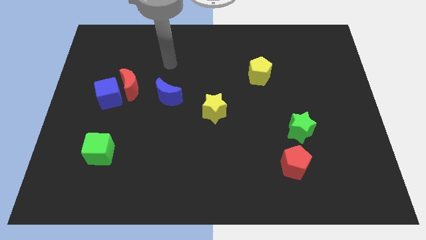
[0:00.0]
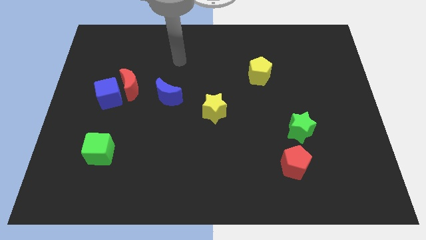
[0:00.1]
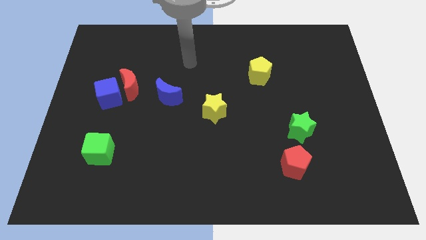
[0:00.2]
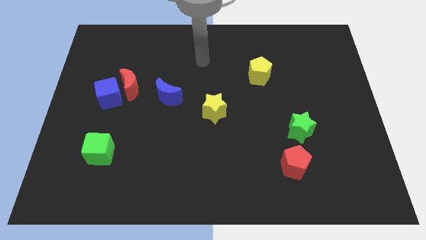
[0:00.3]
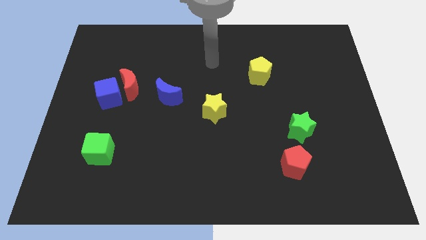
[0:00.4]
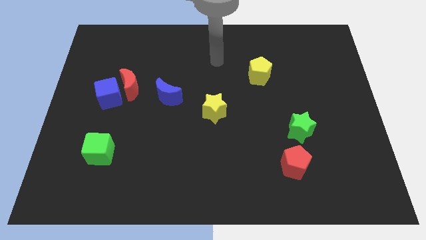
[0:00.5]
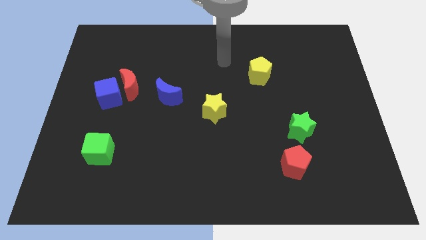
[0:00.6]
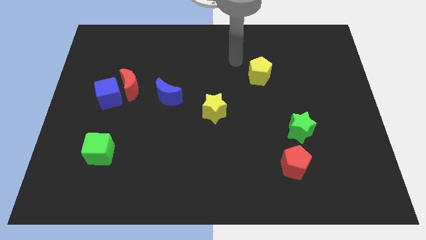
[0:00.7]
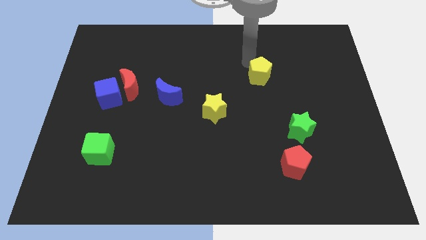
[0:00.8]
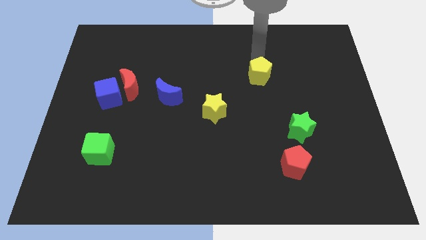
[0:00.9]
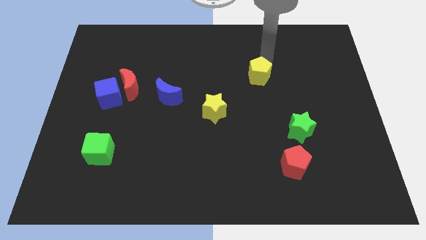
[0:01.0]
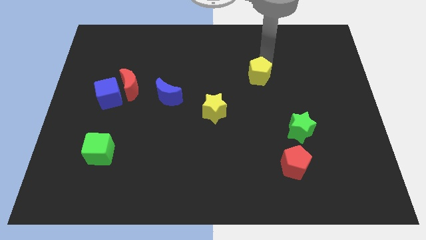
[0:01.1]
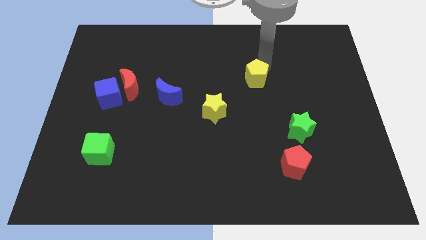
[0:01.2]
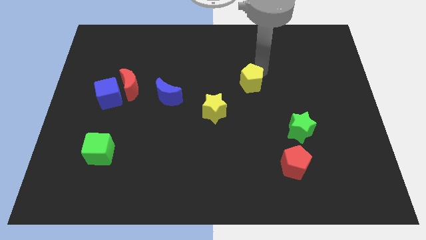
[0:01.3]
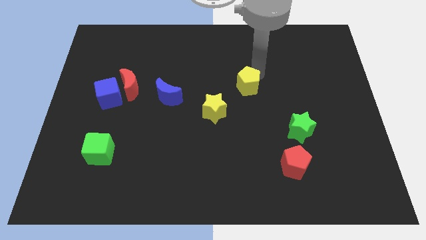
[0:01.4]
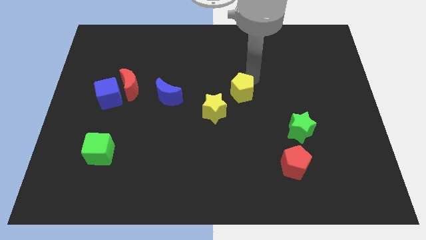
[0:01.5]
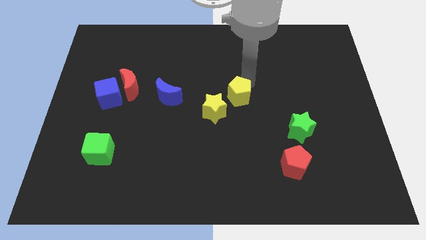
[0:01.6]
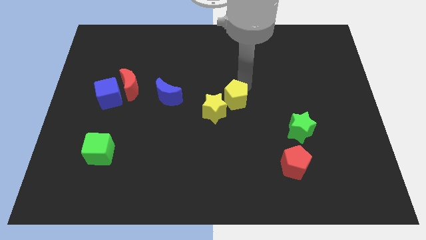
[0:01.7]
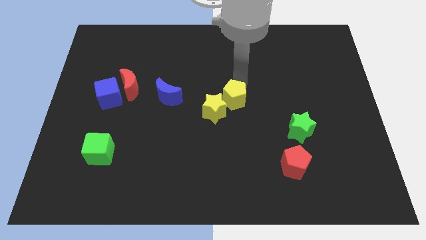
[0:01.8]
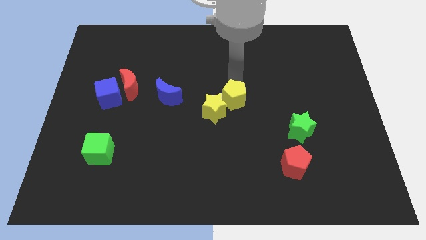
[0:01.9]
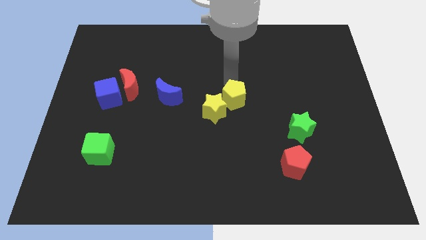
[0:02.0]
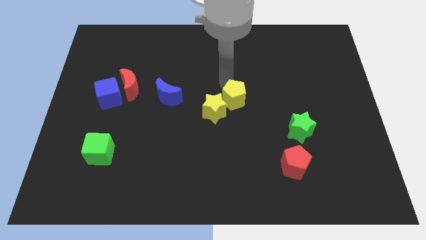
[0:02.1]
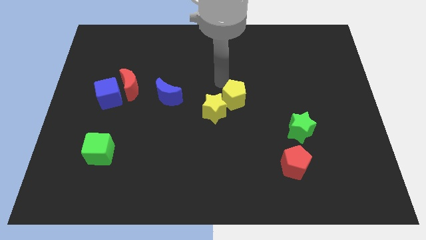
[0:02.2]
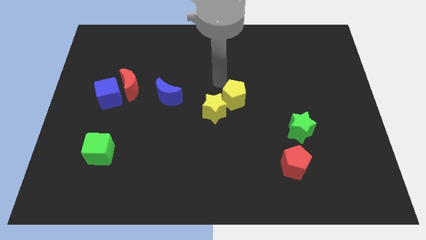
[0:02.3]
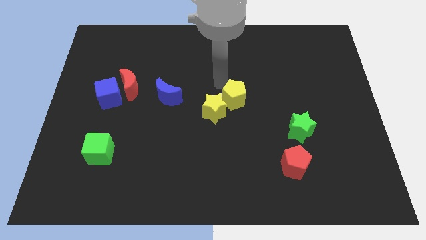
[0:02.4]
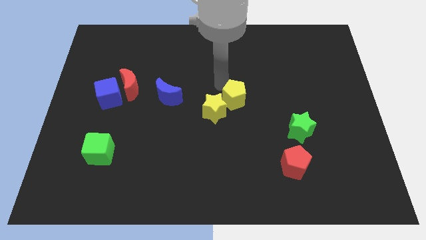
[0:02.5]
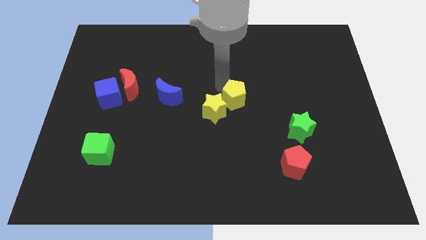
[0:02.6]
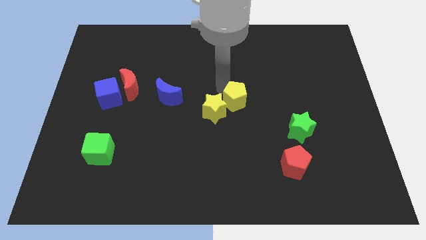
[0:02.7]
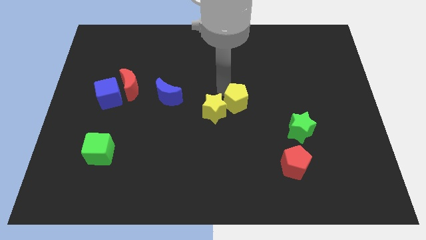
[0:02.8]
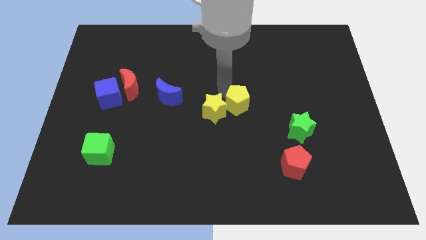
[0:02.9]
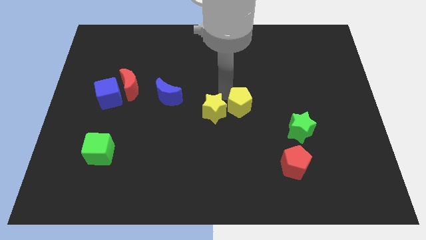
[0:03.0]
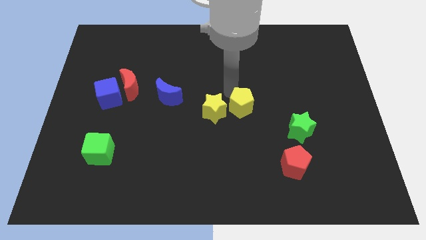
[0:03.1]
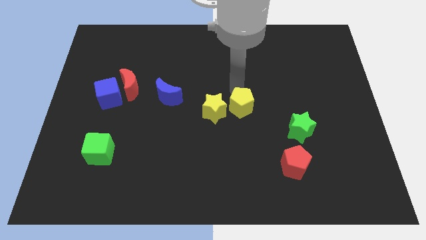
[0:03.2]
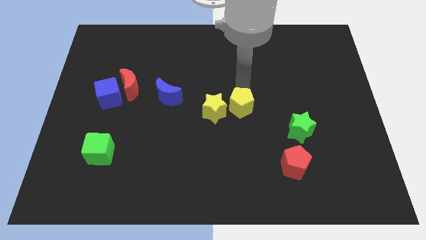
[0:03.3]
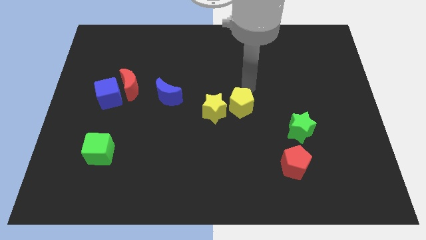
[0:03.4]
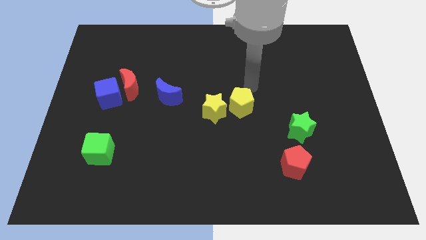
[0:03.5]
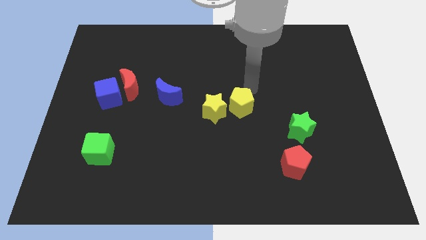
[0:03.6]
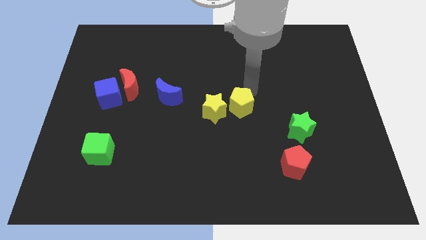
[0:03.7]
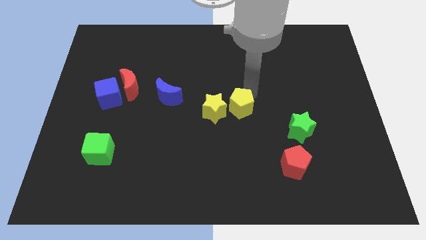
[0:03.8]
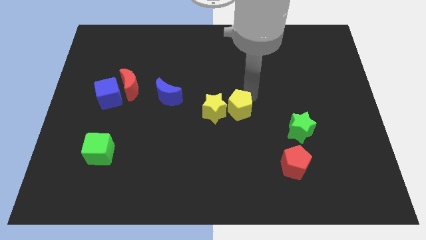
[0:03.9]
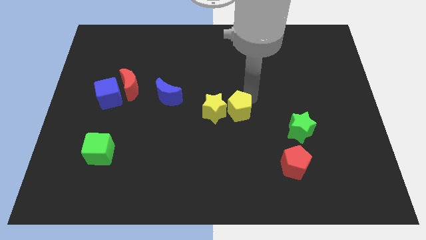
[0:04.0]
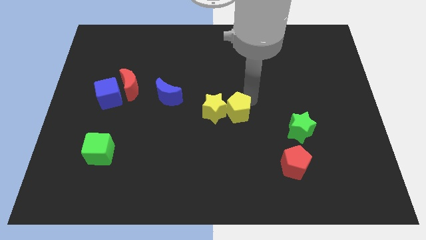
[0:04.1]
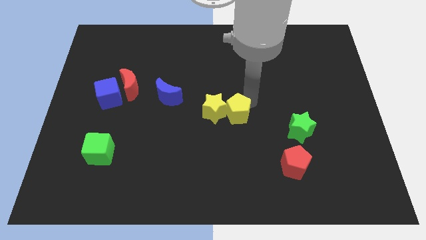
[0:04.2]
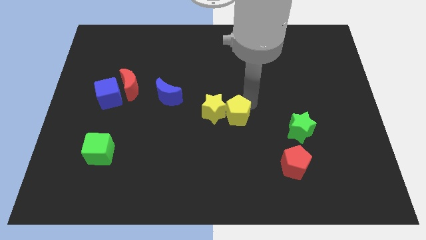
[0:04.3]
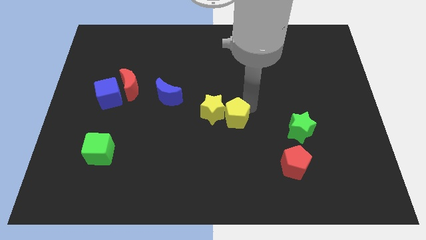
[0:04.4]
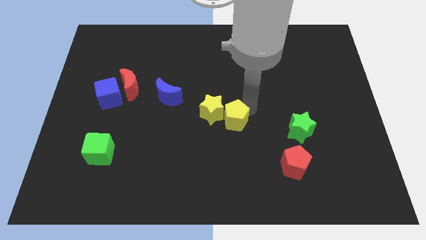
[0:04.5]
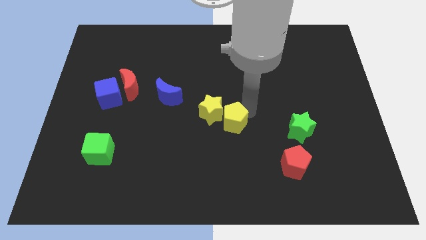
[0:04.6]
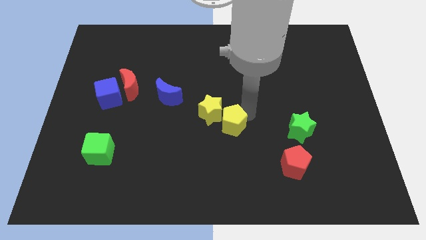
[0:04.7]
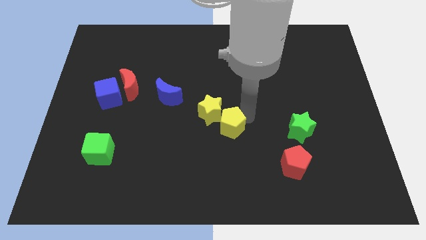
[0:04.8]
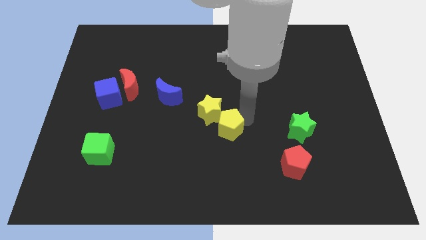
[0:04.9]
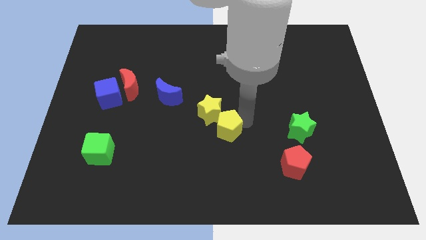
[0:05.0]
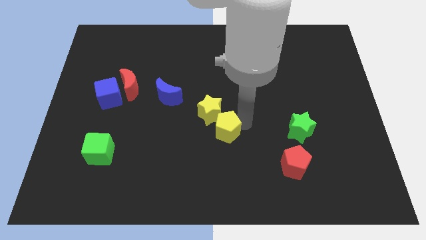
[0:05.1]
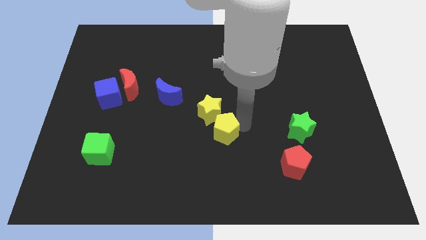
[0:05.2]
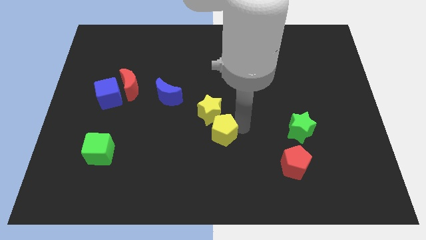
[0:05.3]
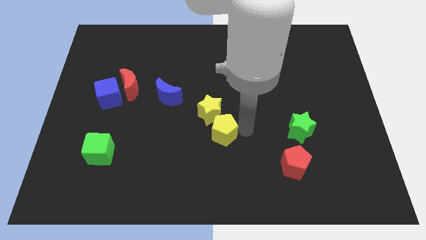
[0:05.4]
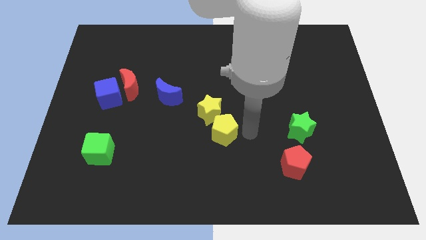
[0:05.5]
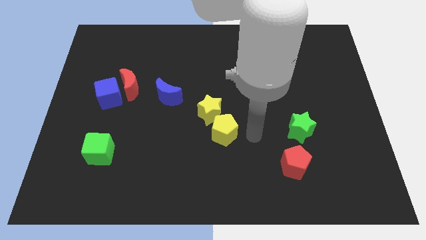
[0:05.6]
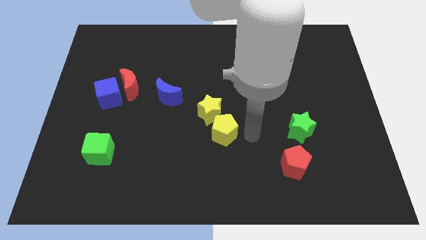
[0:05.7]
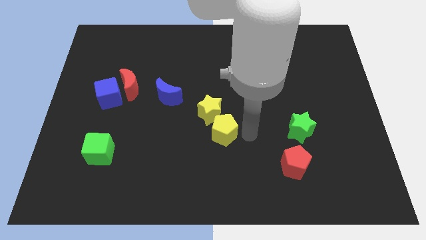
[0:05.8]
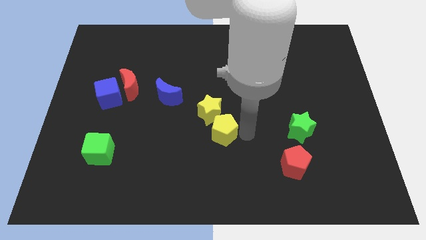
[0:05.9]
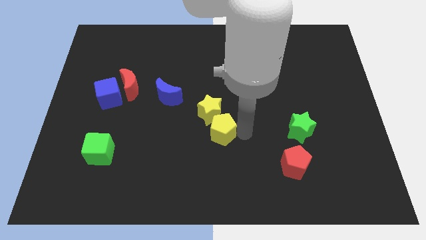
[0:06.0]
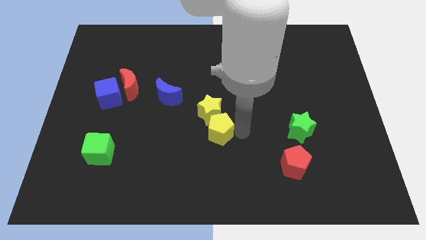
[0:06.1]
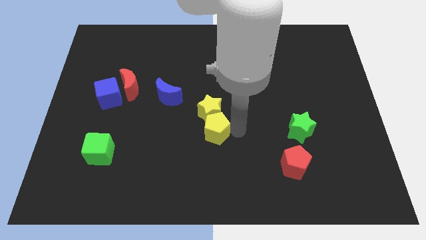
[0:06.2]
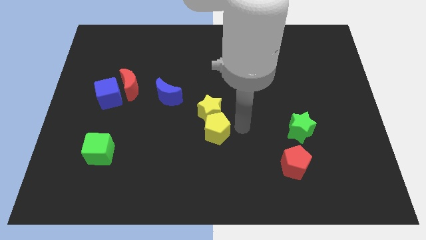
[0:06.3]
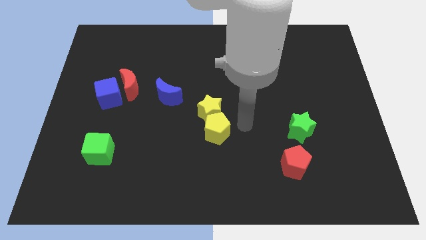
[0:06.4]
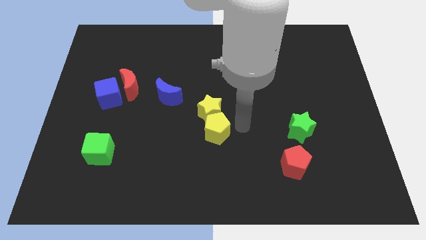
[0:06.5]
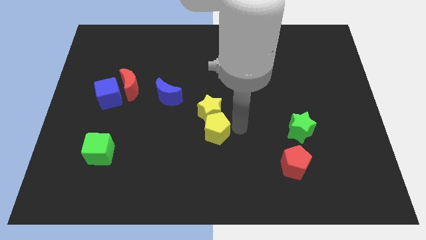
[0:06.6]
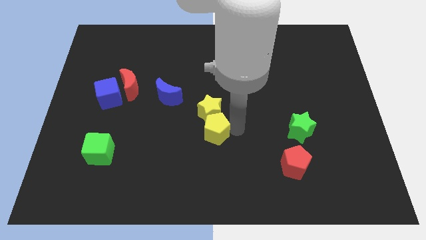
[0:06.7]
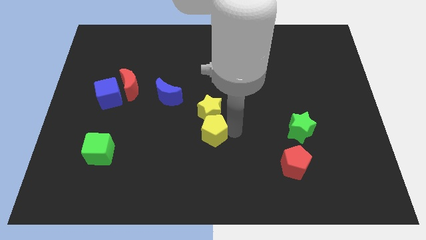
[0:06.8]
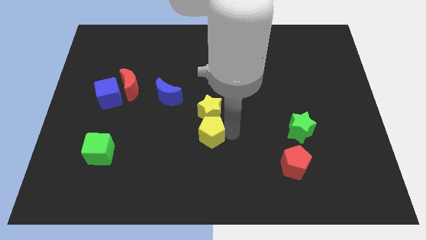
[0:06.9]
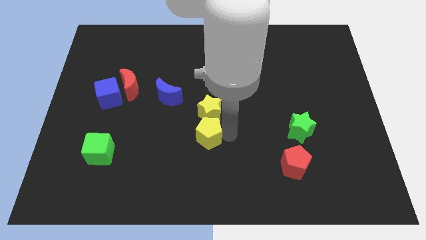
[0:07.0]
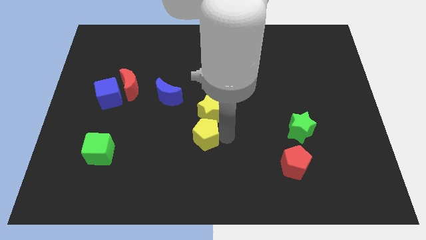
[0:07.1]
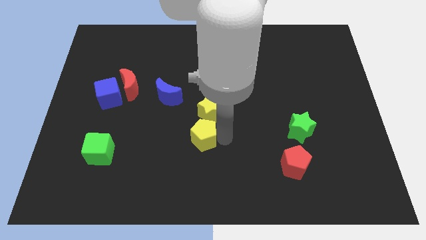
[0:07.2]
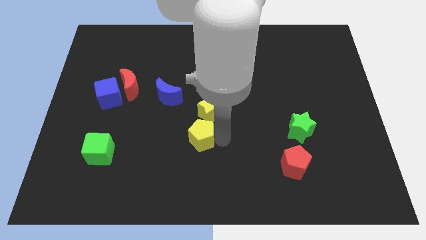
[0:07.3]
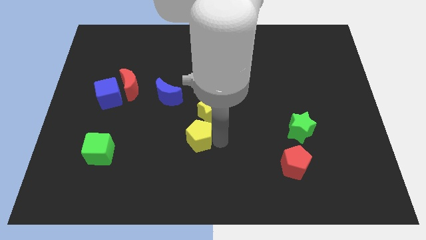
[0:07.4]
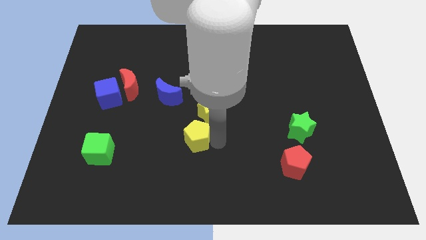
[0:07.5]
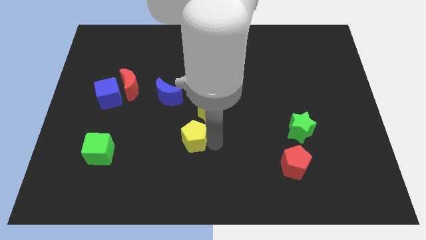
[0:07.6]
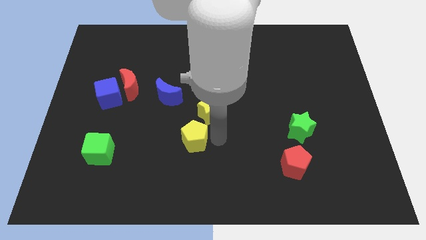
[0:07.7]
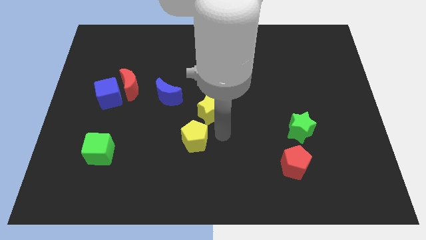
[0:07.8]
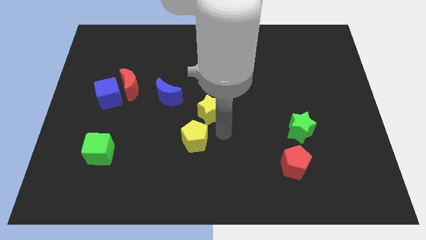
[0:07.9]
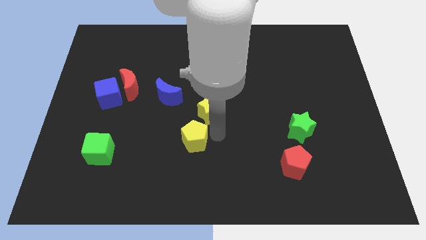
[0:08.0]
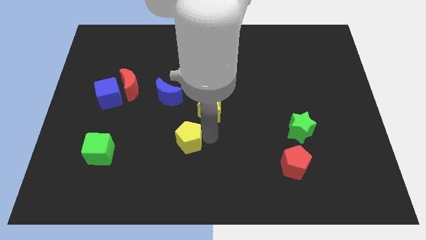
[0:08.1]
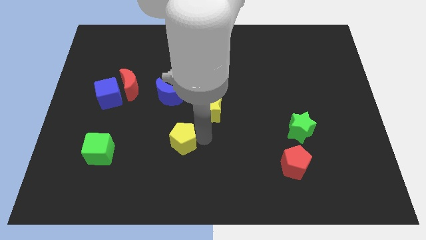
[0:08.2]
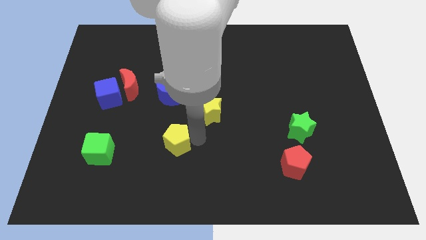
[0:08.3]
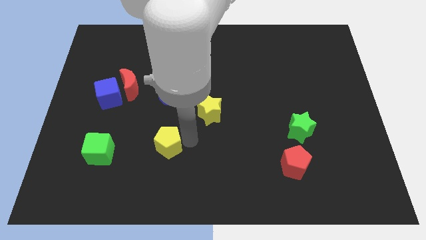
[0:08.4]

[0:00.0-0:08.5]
slide the yellow pentagon to the right side of the green cube
